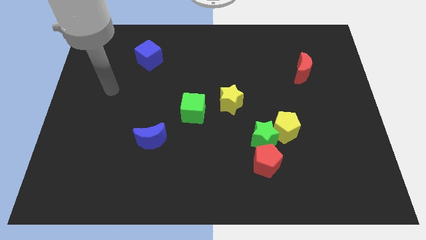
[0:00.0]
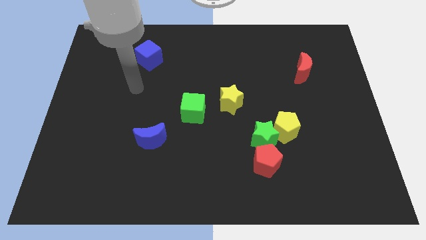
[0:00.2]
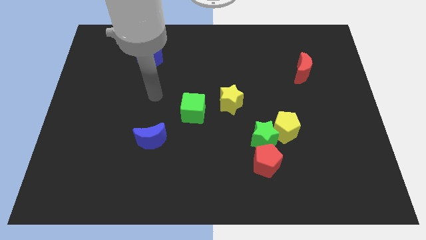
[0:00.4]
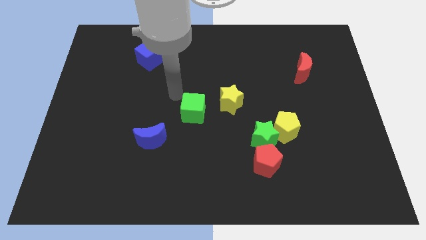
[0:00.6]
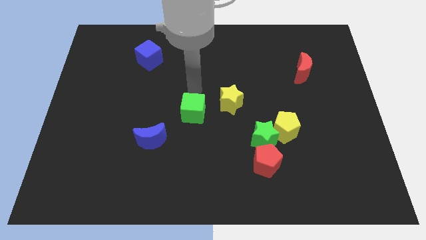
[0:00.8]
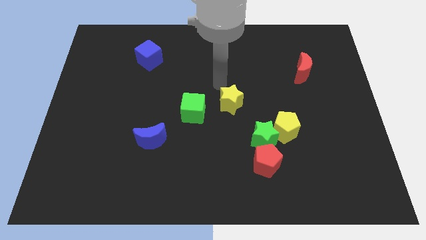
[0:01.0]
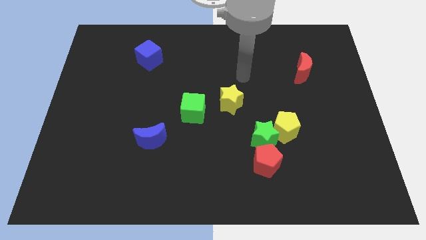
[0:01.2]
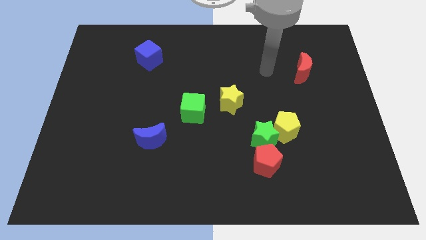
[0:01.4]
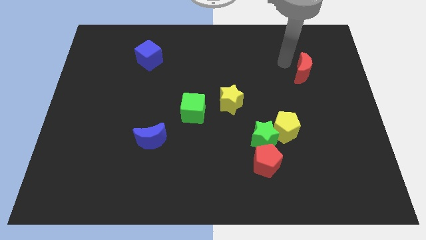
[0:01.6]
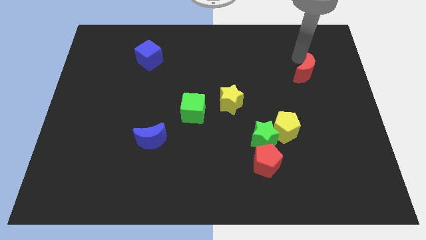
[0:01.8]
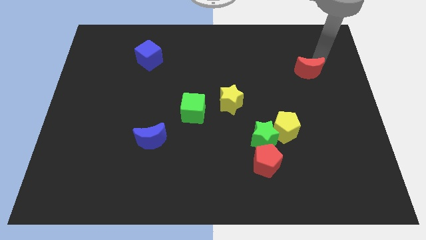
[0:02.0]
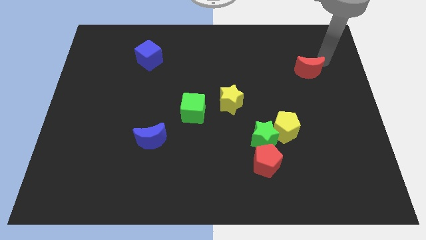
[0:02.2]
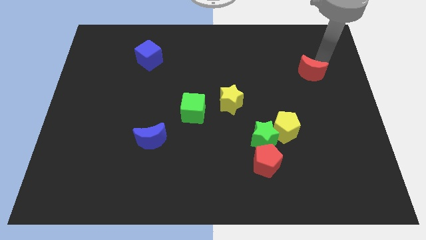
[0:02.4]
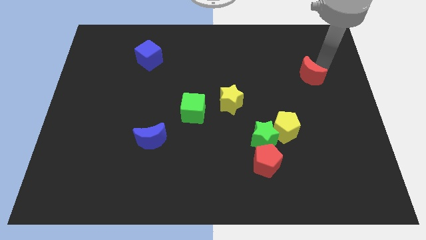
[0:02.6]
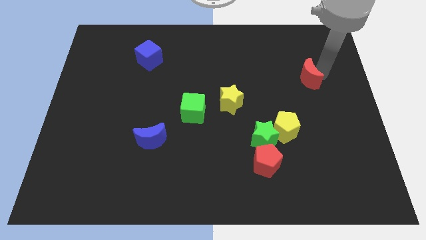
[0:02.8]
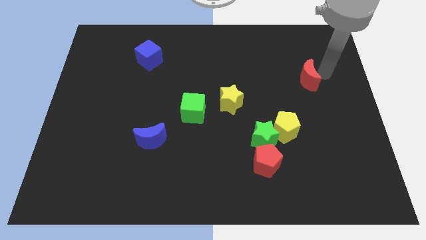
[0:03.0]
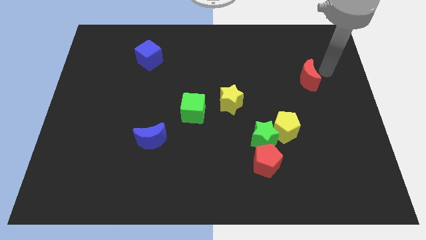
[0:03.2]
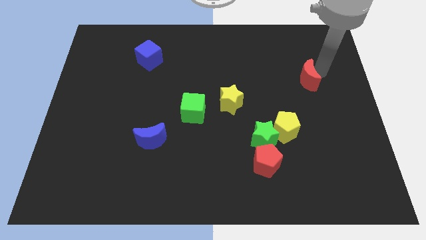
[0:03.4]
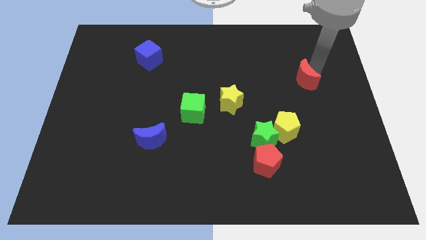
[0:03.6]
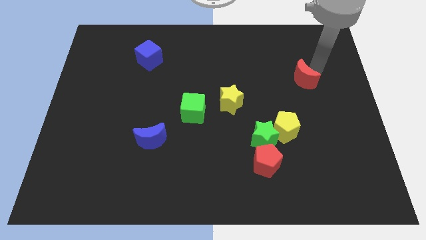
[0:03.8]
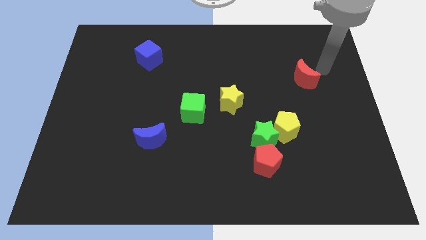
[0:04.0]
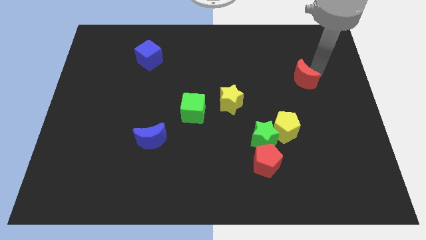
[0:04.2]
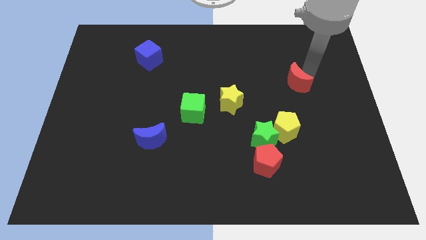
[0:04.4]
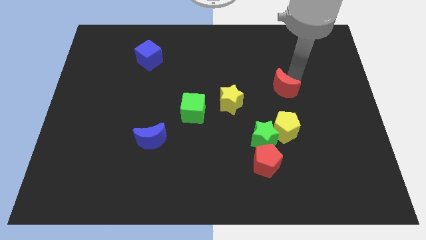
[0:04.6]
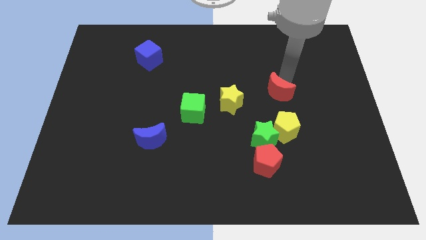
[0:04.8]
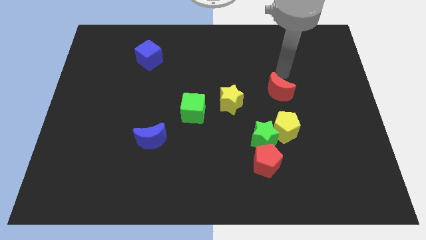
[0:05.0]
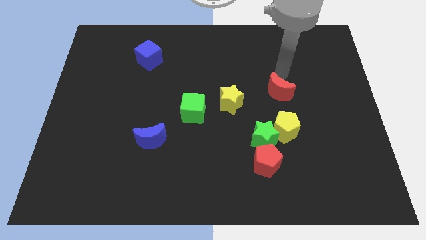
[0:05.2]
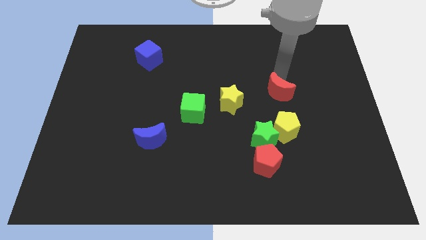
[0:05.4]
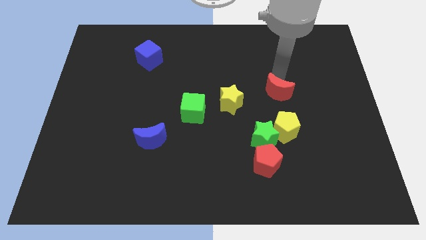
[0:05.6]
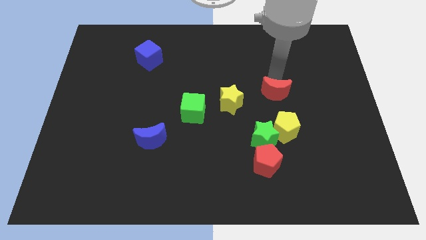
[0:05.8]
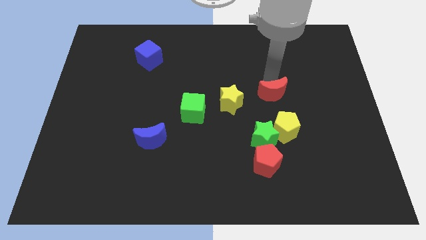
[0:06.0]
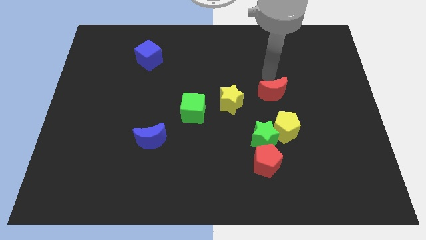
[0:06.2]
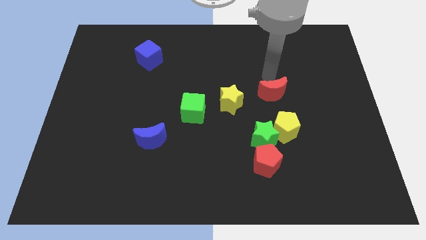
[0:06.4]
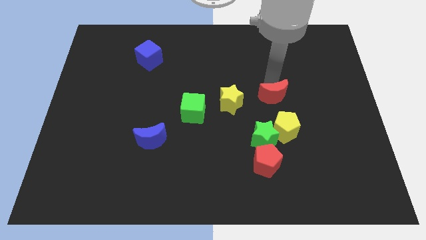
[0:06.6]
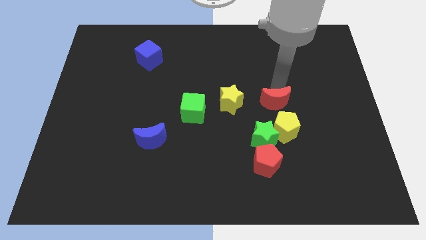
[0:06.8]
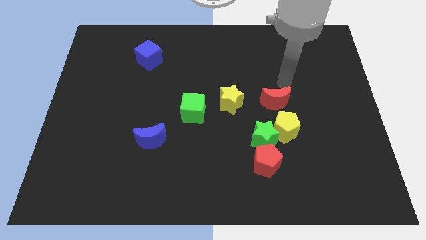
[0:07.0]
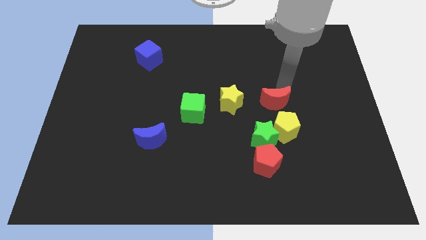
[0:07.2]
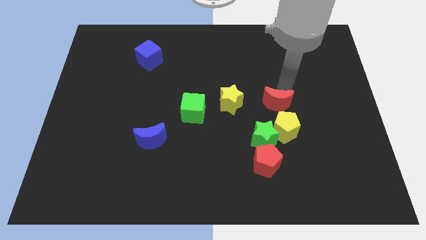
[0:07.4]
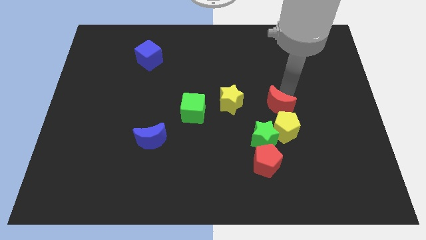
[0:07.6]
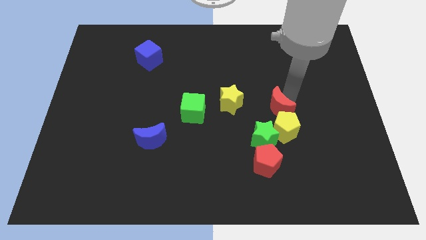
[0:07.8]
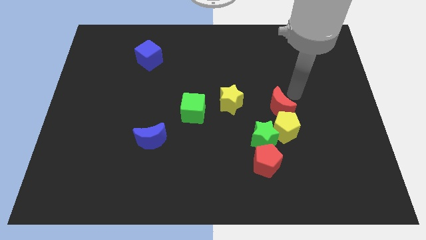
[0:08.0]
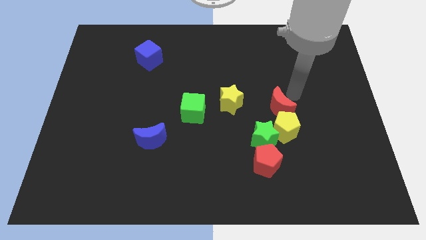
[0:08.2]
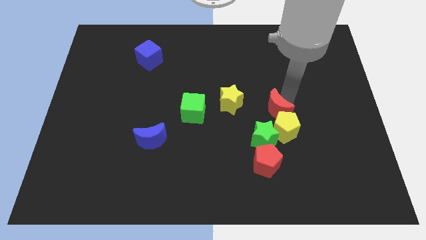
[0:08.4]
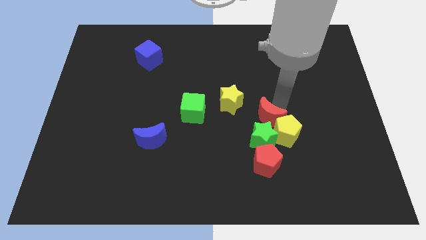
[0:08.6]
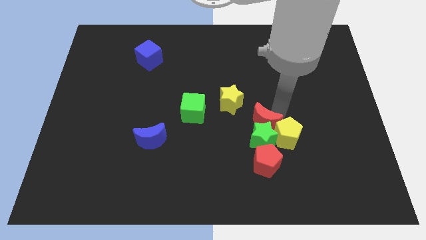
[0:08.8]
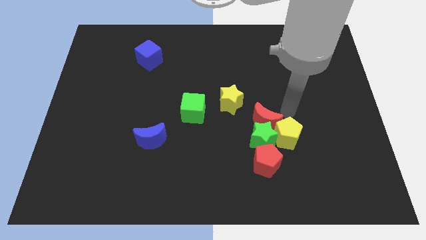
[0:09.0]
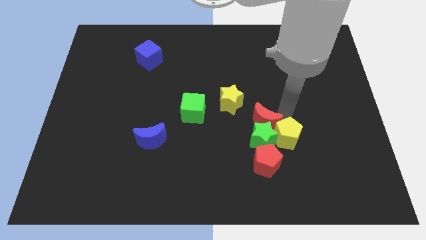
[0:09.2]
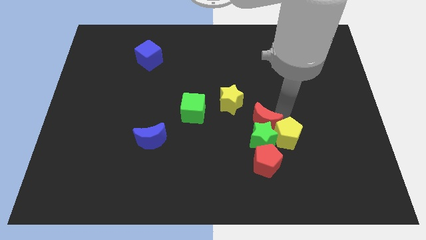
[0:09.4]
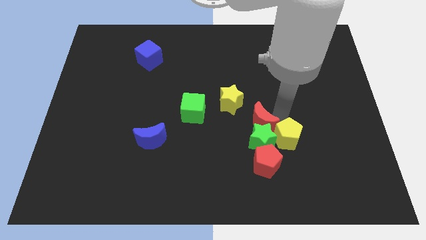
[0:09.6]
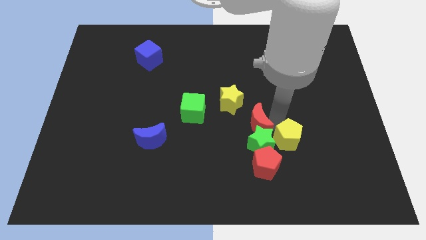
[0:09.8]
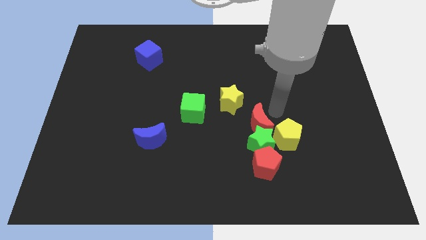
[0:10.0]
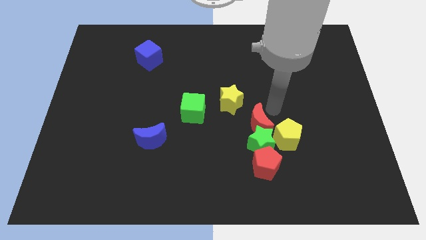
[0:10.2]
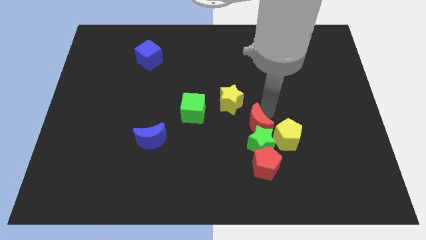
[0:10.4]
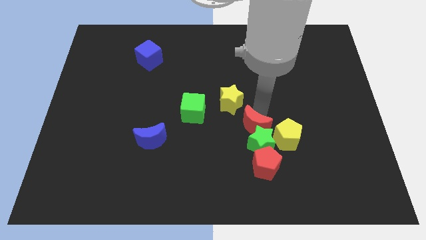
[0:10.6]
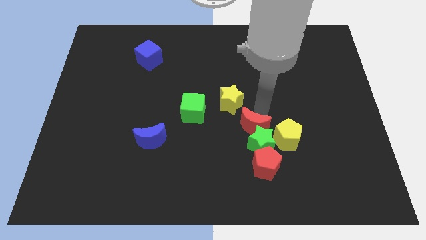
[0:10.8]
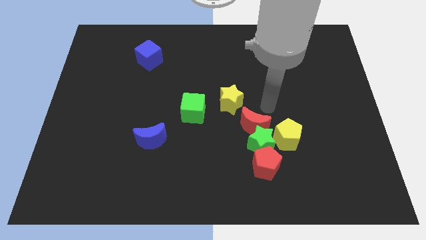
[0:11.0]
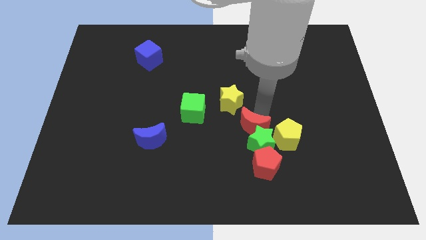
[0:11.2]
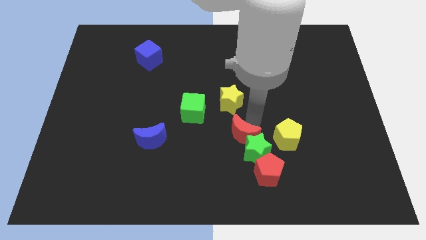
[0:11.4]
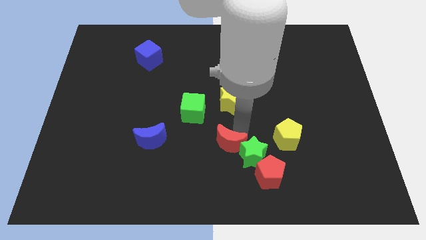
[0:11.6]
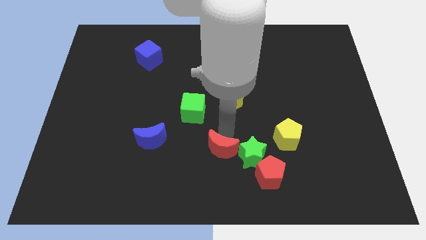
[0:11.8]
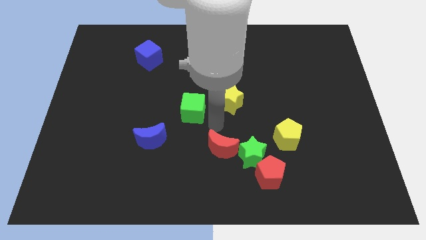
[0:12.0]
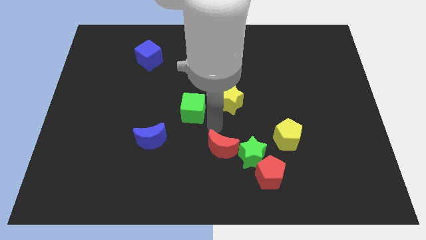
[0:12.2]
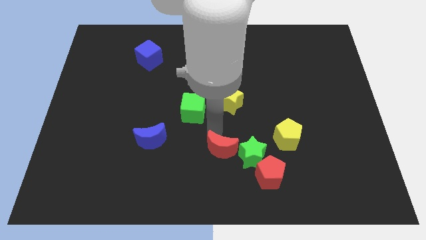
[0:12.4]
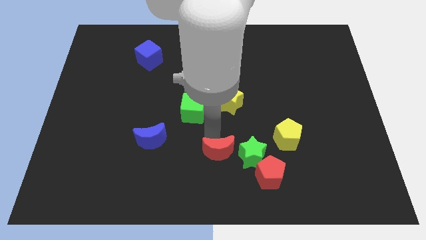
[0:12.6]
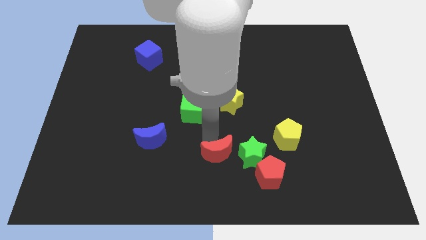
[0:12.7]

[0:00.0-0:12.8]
put the red moon to the bottom
